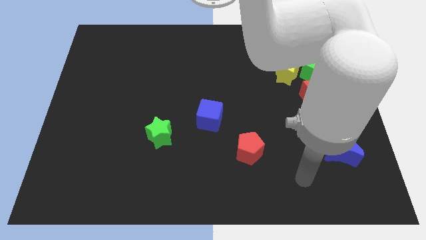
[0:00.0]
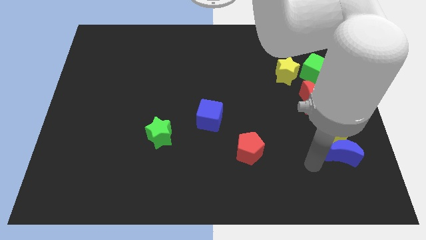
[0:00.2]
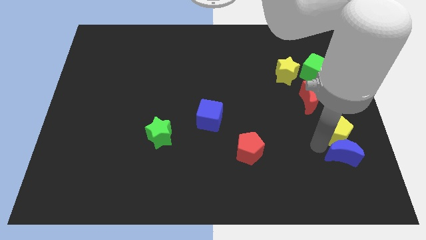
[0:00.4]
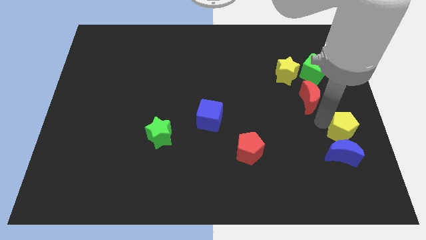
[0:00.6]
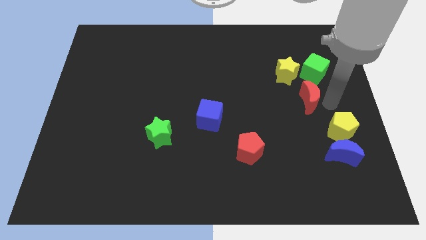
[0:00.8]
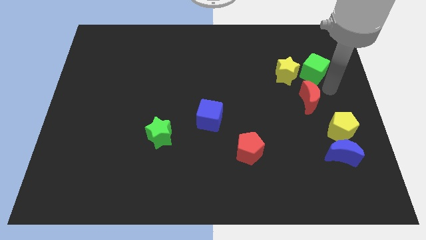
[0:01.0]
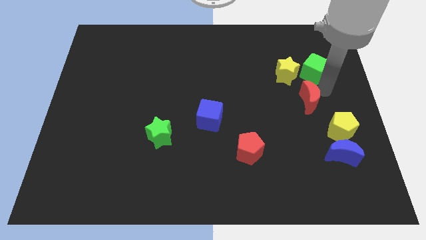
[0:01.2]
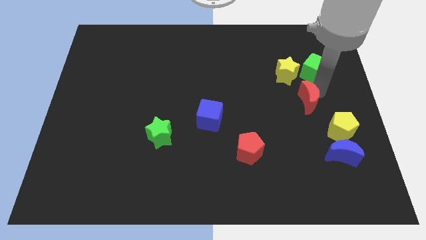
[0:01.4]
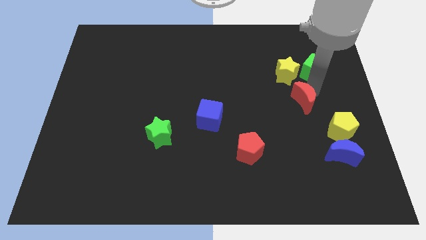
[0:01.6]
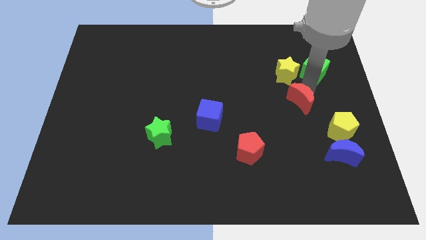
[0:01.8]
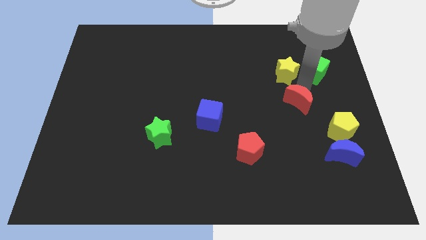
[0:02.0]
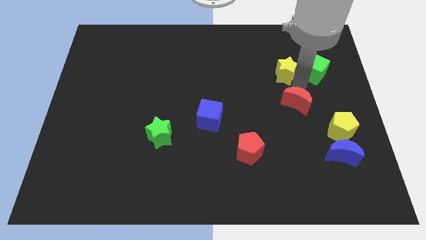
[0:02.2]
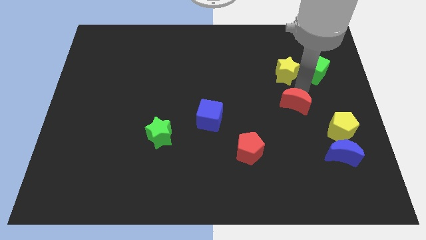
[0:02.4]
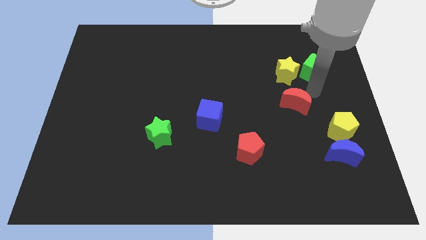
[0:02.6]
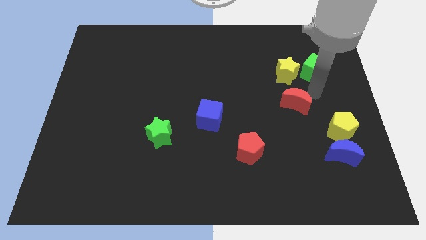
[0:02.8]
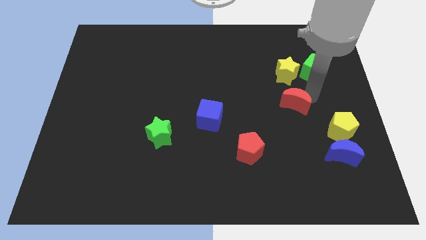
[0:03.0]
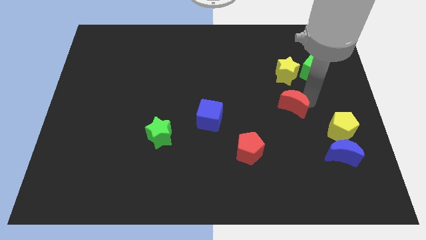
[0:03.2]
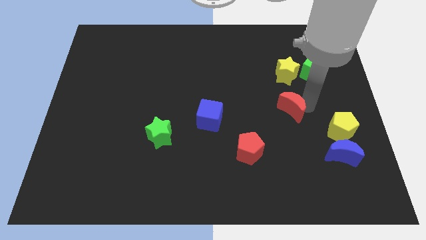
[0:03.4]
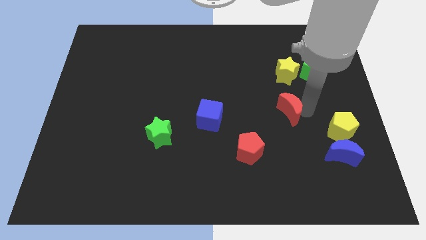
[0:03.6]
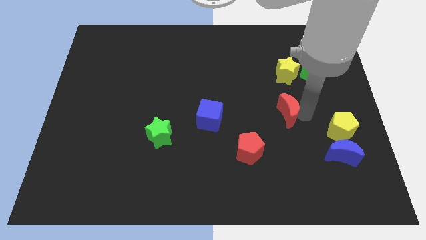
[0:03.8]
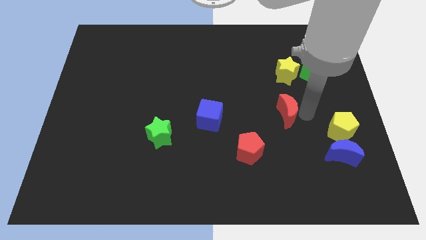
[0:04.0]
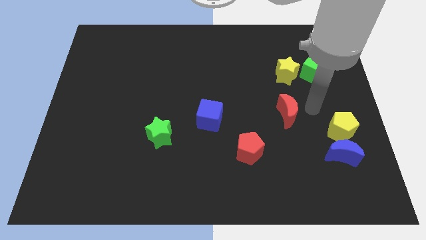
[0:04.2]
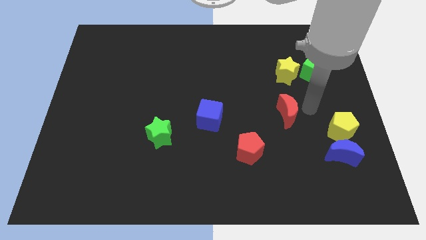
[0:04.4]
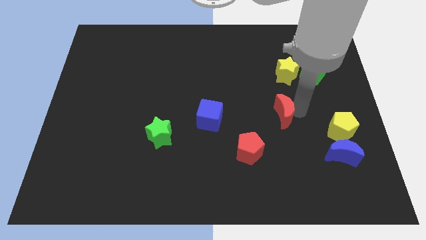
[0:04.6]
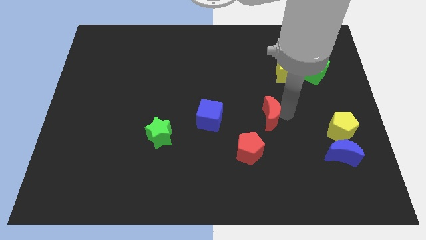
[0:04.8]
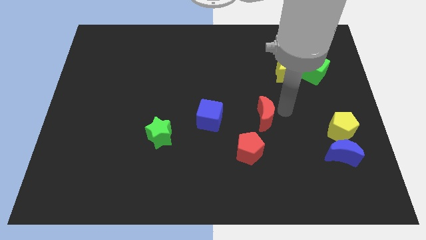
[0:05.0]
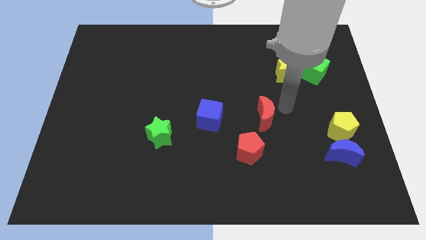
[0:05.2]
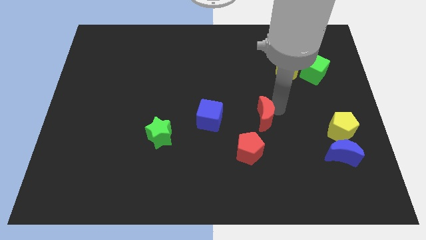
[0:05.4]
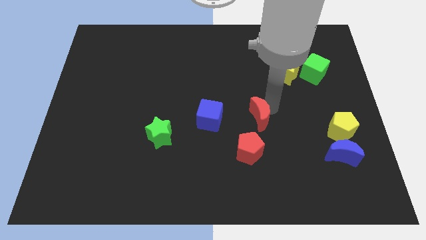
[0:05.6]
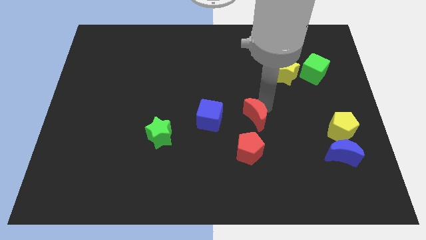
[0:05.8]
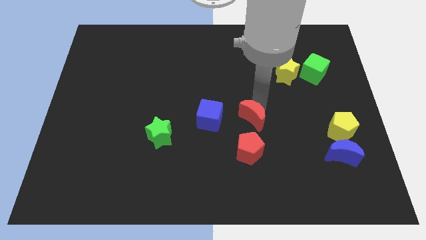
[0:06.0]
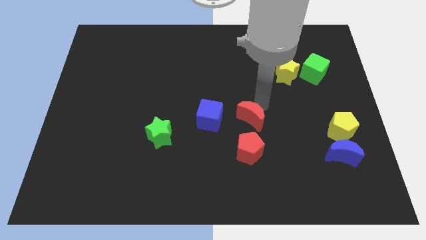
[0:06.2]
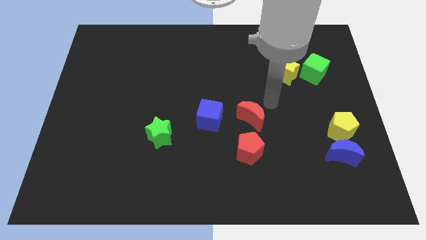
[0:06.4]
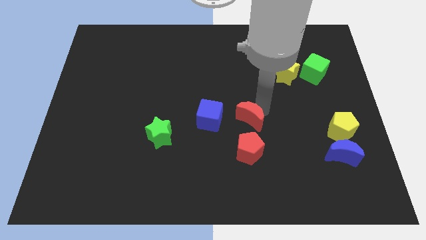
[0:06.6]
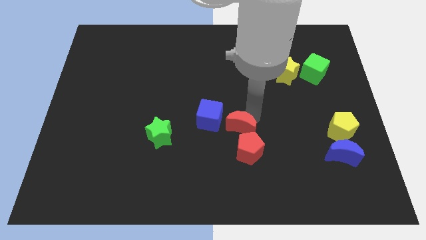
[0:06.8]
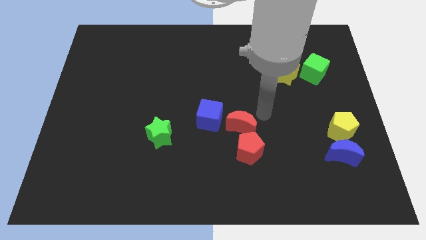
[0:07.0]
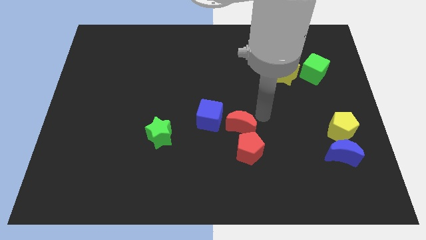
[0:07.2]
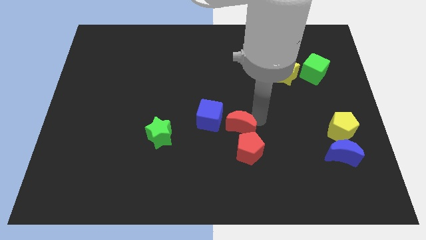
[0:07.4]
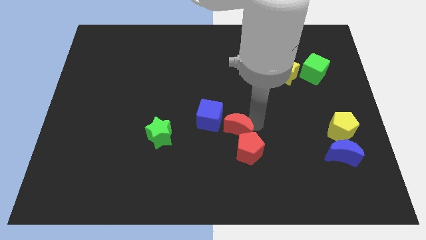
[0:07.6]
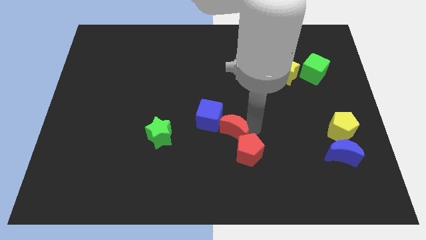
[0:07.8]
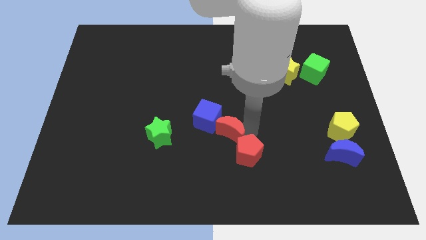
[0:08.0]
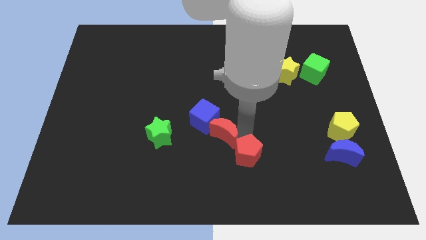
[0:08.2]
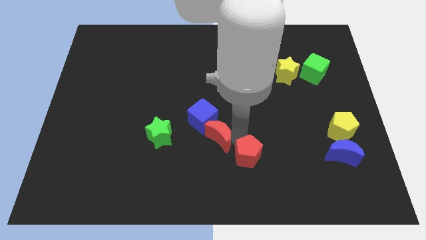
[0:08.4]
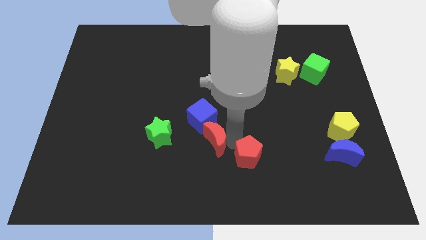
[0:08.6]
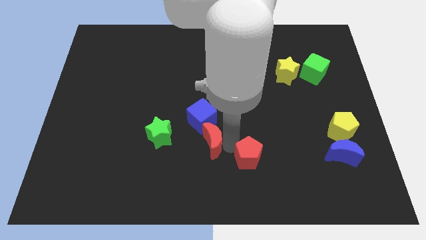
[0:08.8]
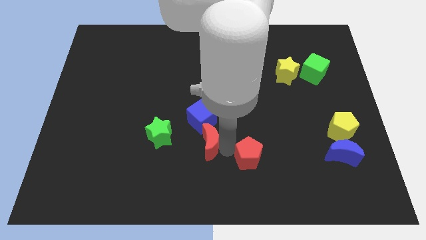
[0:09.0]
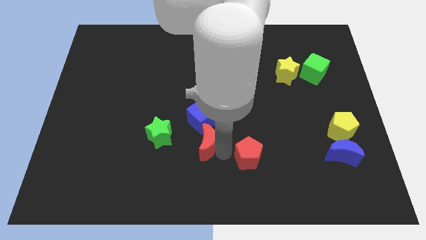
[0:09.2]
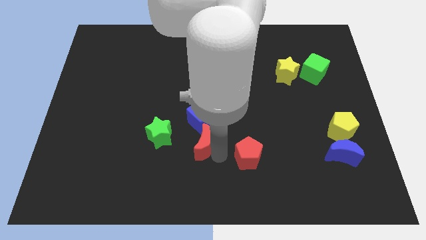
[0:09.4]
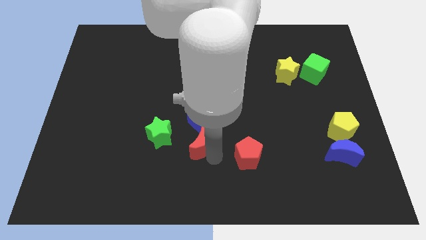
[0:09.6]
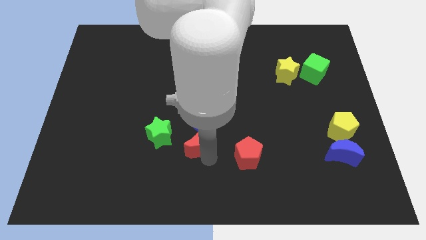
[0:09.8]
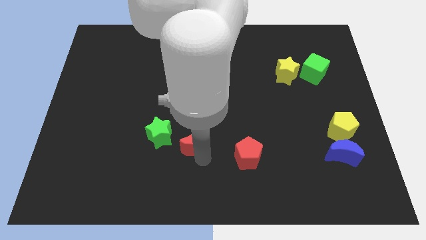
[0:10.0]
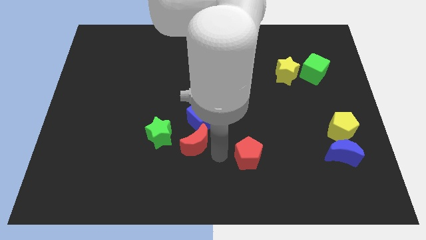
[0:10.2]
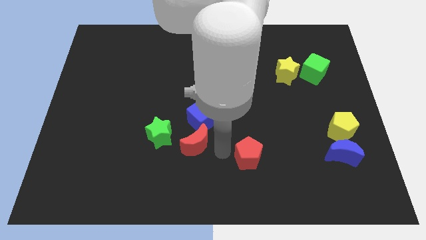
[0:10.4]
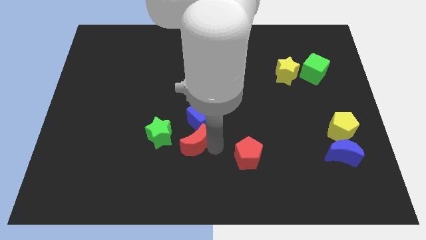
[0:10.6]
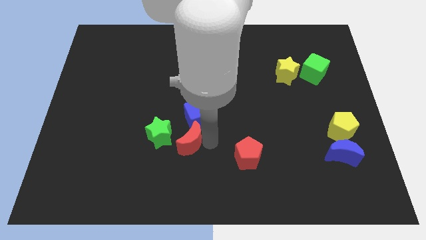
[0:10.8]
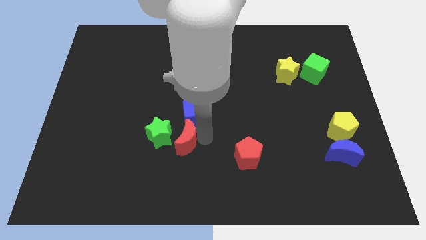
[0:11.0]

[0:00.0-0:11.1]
slide the red moon to the green star

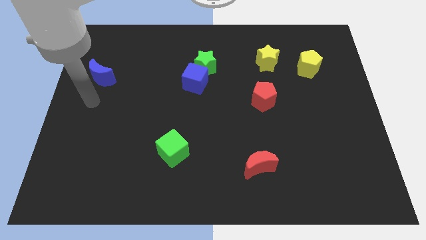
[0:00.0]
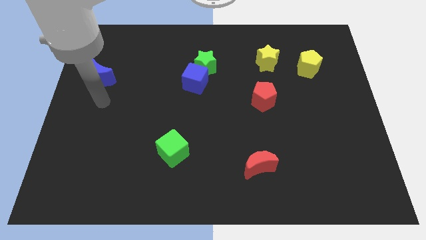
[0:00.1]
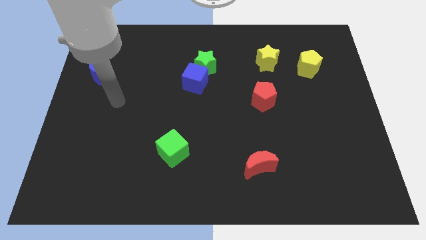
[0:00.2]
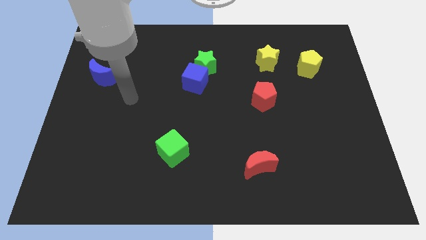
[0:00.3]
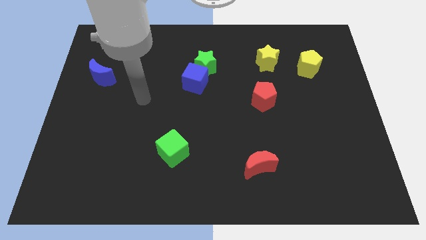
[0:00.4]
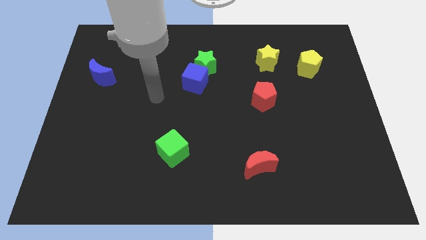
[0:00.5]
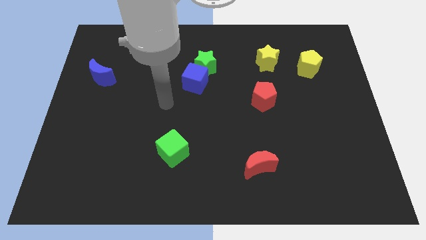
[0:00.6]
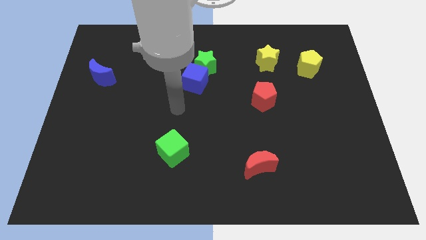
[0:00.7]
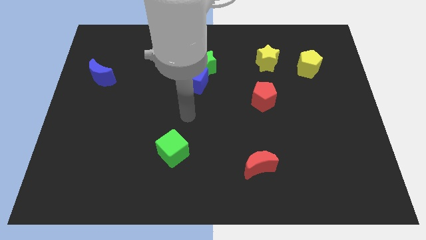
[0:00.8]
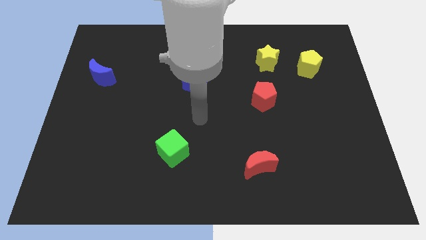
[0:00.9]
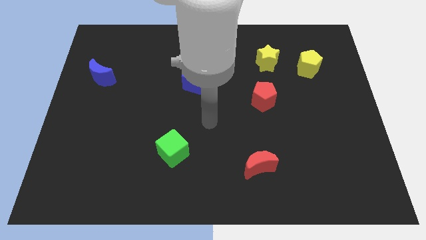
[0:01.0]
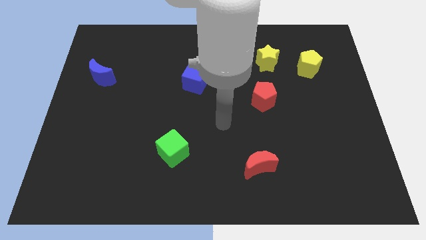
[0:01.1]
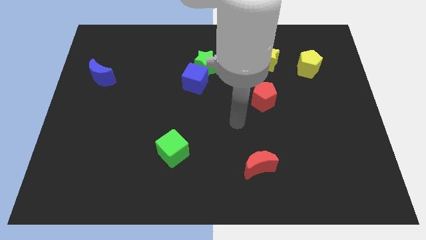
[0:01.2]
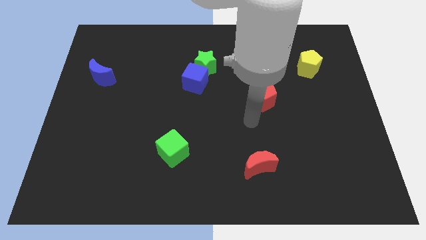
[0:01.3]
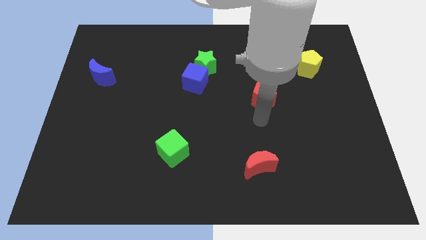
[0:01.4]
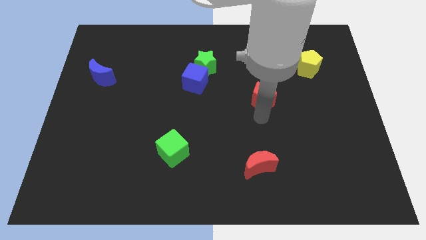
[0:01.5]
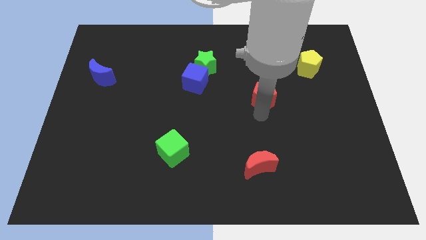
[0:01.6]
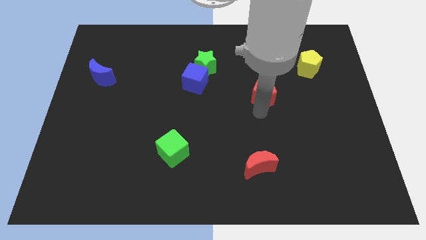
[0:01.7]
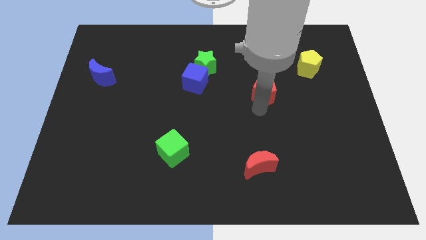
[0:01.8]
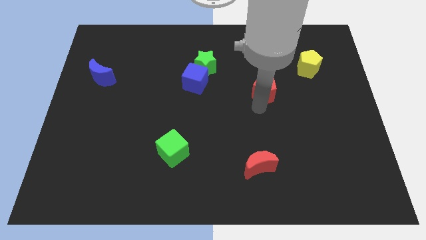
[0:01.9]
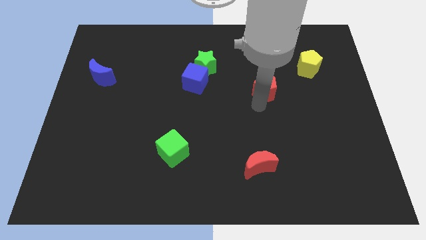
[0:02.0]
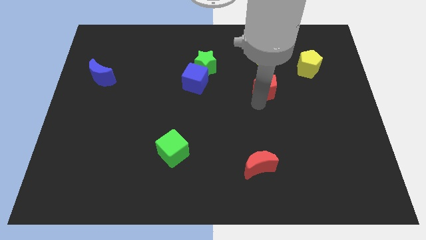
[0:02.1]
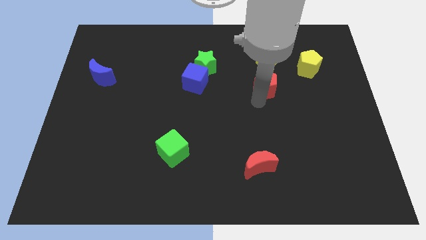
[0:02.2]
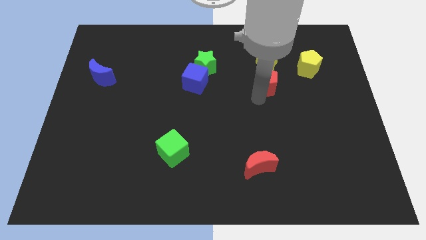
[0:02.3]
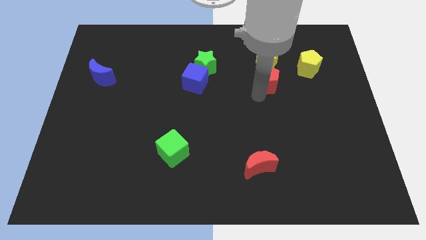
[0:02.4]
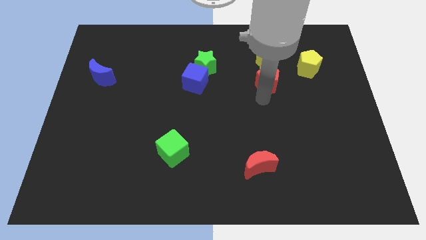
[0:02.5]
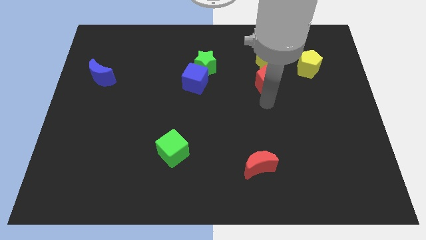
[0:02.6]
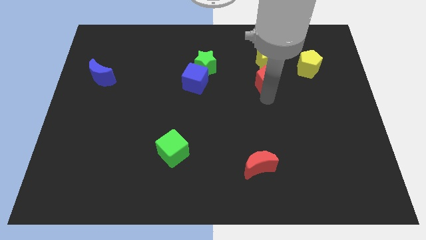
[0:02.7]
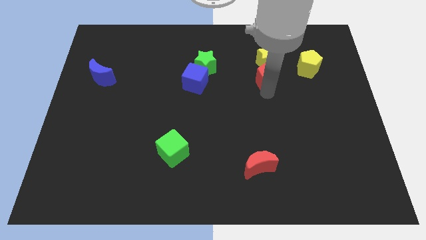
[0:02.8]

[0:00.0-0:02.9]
move the red pentagon towards the yellow star
